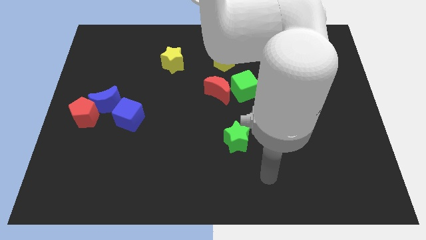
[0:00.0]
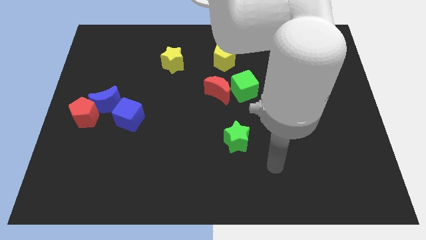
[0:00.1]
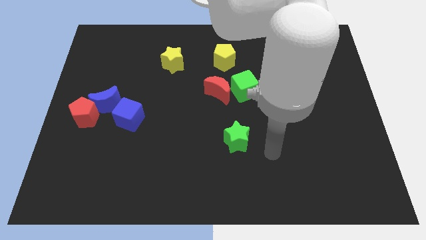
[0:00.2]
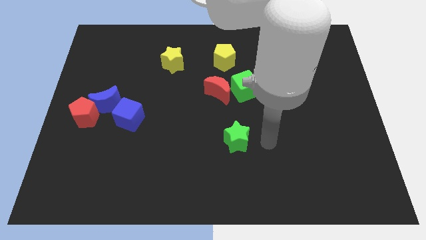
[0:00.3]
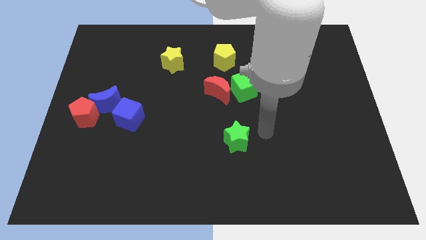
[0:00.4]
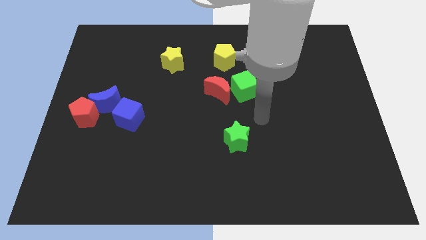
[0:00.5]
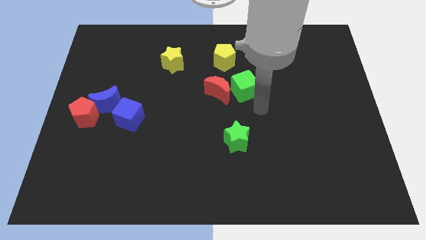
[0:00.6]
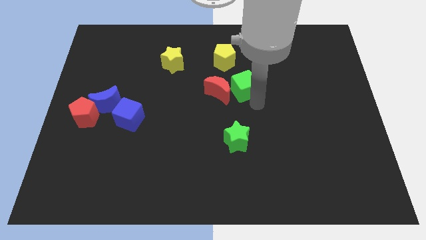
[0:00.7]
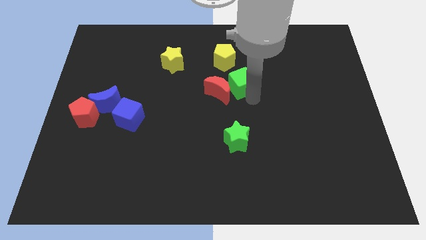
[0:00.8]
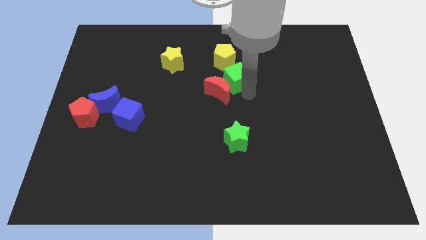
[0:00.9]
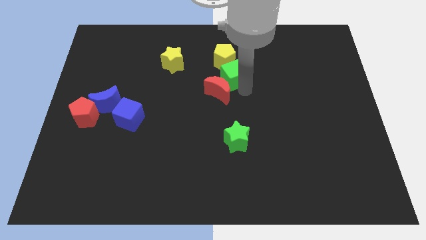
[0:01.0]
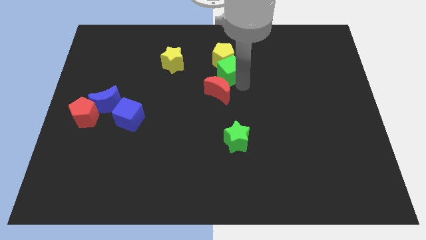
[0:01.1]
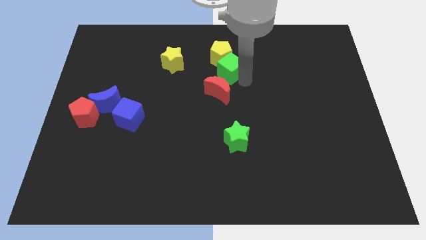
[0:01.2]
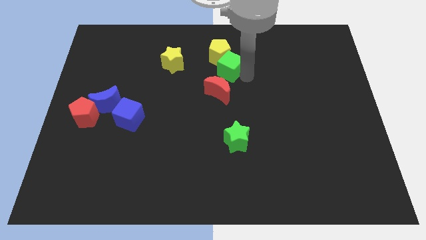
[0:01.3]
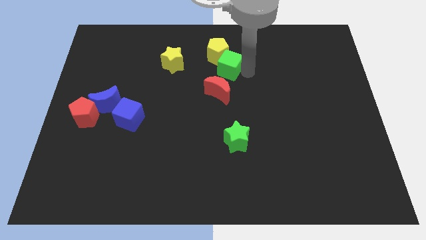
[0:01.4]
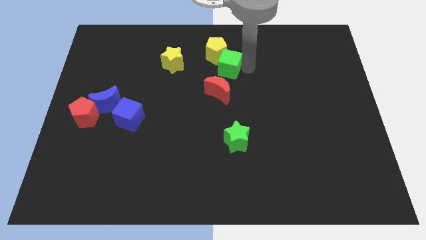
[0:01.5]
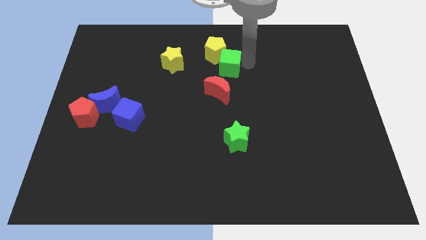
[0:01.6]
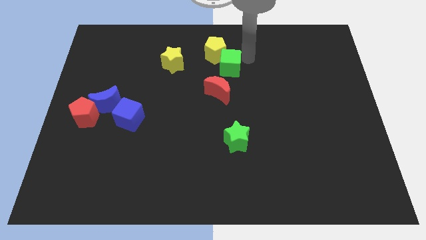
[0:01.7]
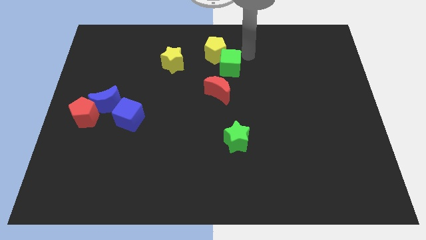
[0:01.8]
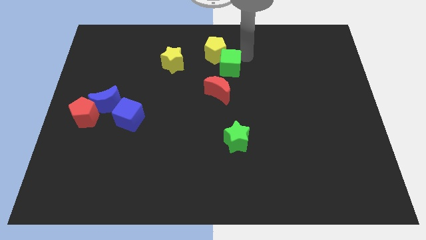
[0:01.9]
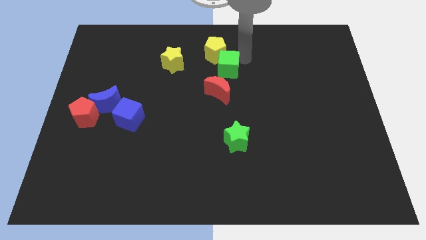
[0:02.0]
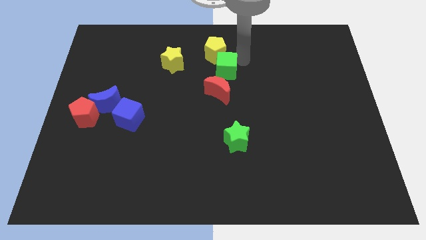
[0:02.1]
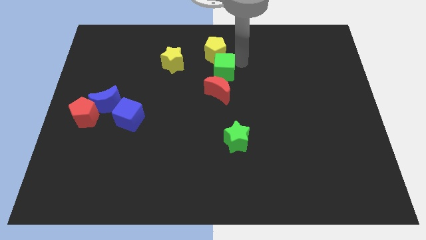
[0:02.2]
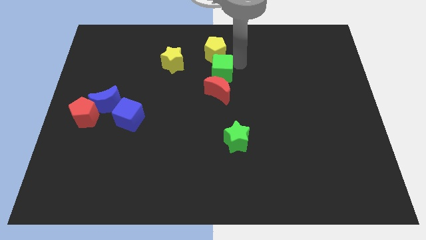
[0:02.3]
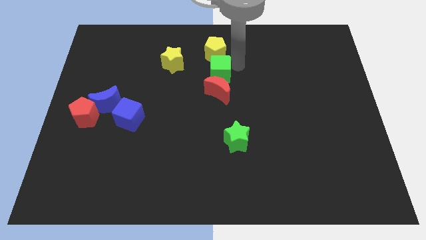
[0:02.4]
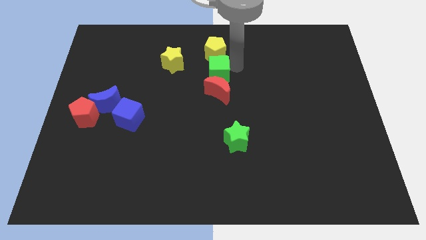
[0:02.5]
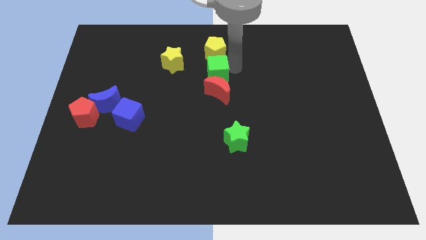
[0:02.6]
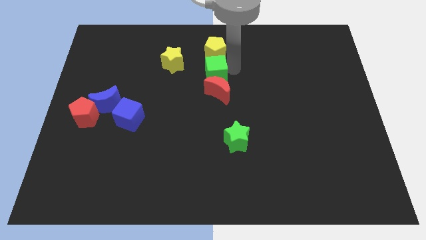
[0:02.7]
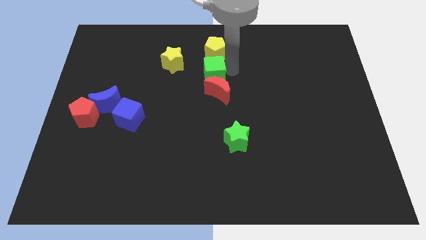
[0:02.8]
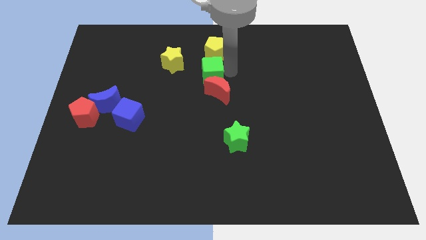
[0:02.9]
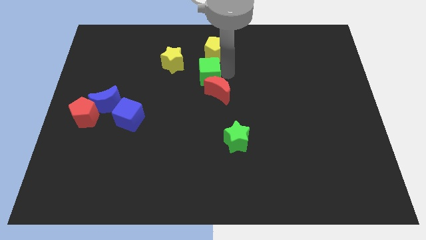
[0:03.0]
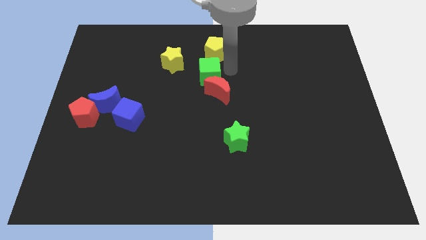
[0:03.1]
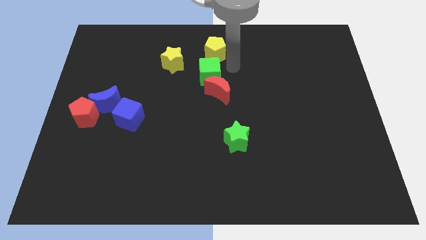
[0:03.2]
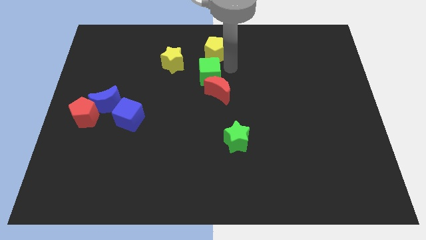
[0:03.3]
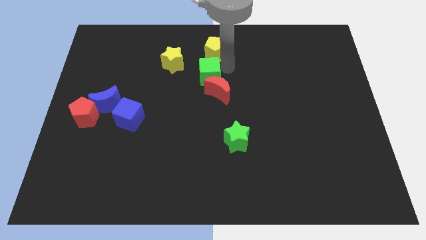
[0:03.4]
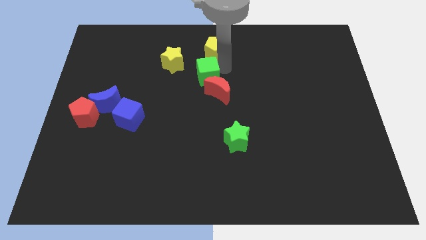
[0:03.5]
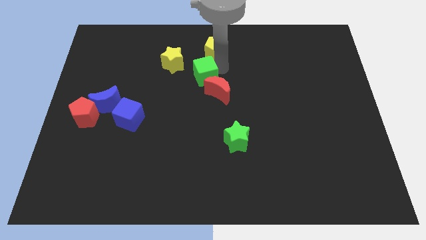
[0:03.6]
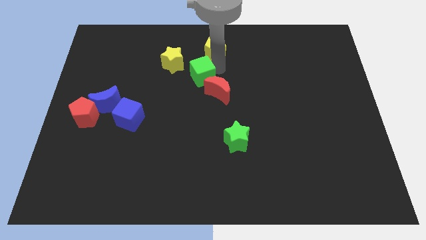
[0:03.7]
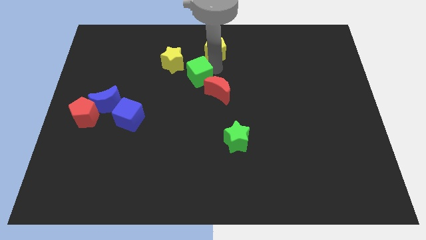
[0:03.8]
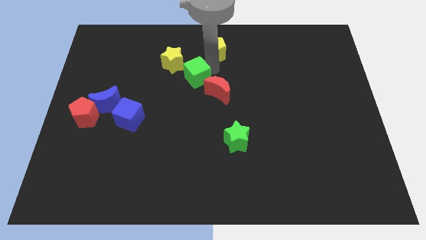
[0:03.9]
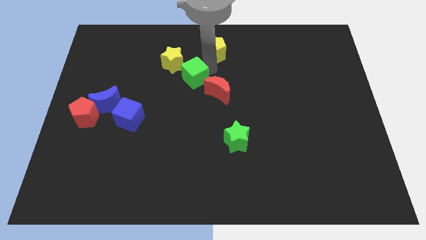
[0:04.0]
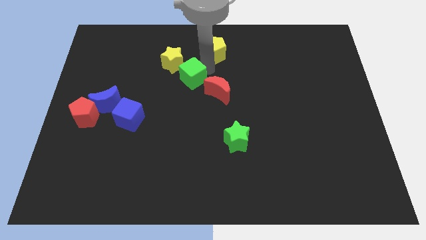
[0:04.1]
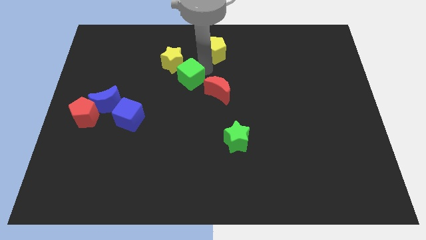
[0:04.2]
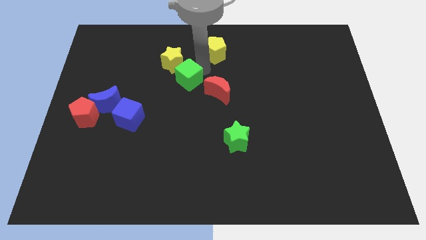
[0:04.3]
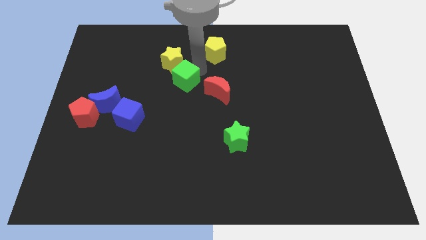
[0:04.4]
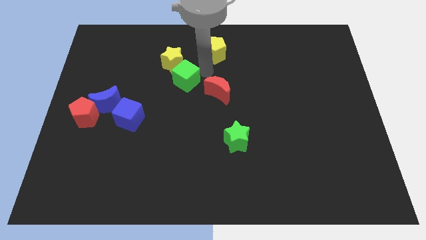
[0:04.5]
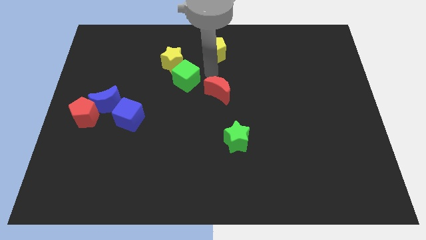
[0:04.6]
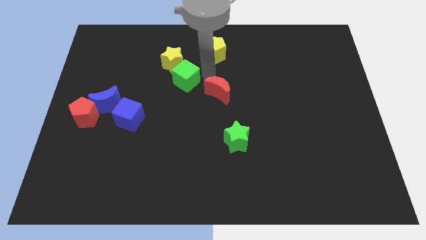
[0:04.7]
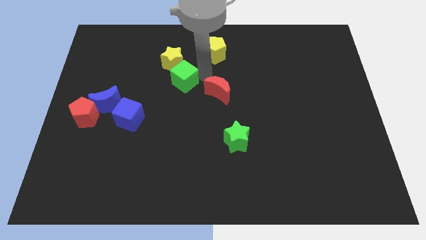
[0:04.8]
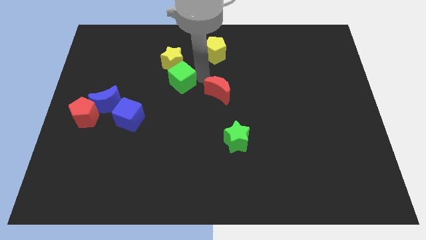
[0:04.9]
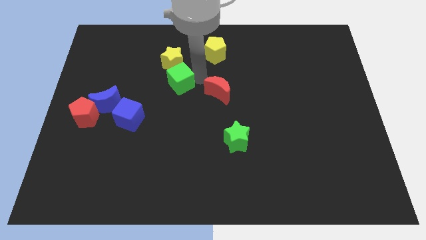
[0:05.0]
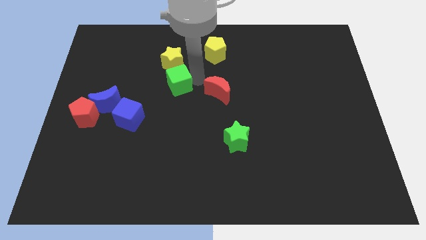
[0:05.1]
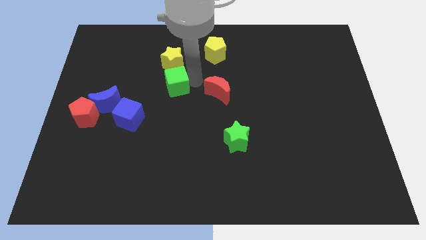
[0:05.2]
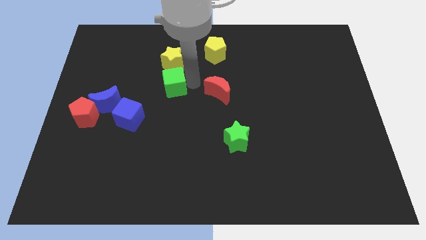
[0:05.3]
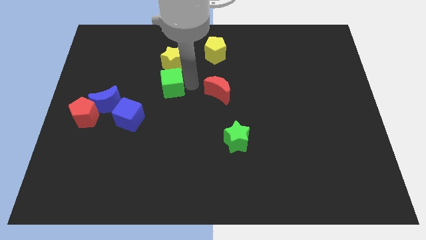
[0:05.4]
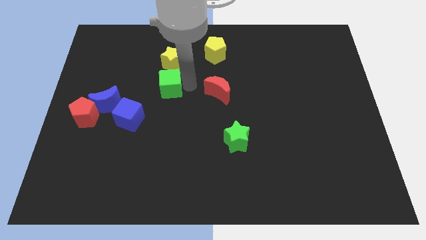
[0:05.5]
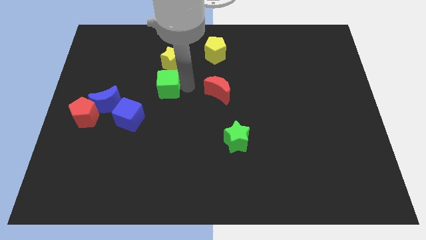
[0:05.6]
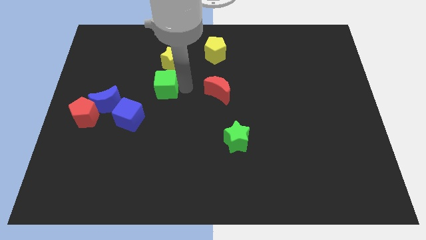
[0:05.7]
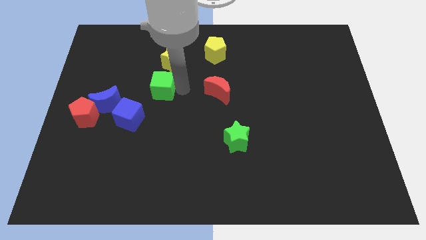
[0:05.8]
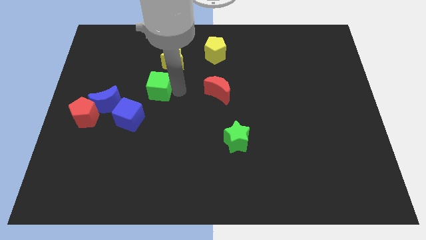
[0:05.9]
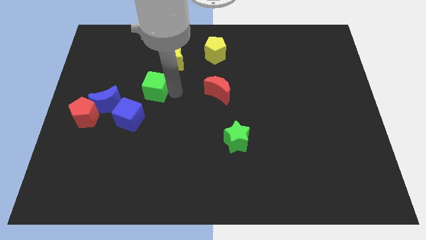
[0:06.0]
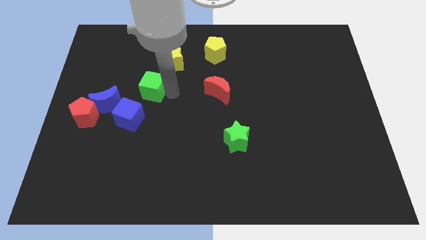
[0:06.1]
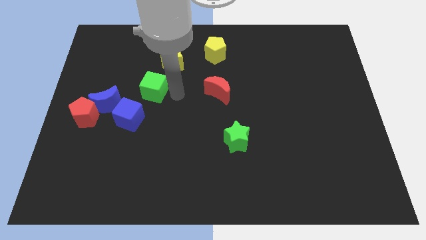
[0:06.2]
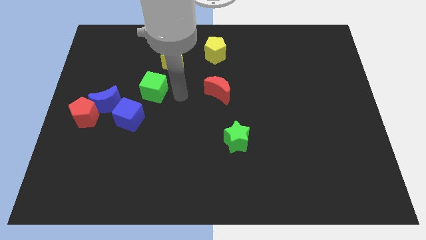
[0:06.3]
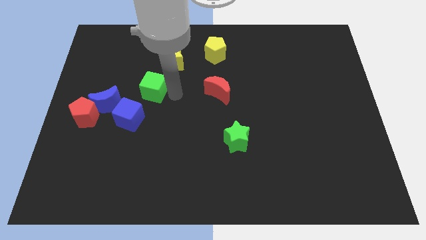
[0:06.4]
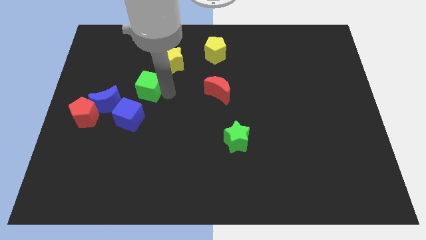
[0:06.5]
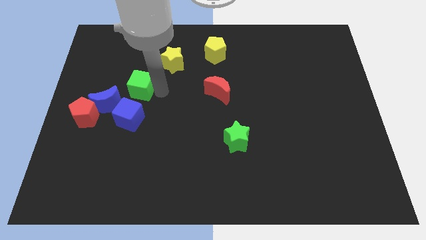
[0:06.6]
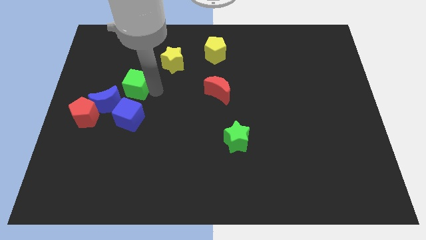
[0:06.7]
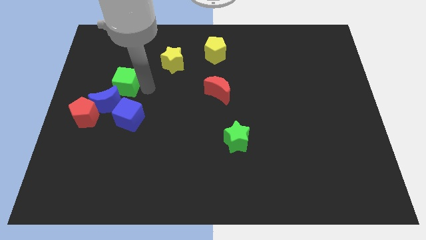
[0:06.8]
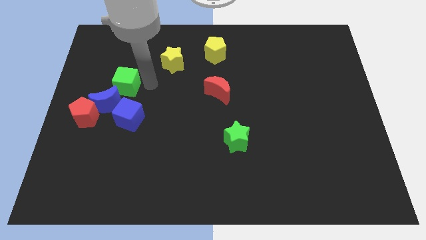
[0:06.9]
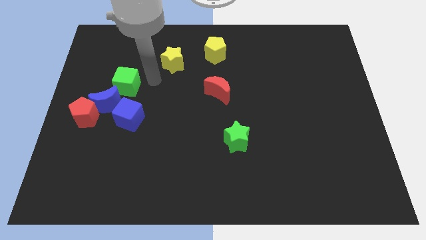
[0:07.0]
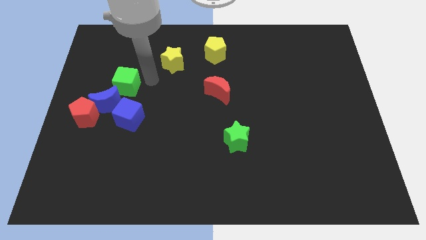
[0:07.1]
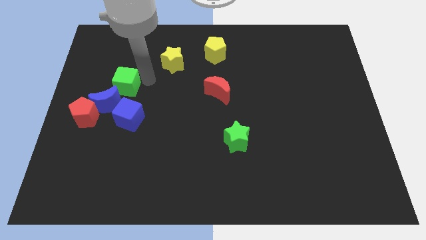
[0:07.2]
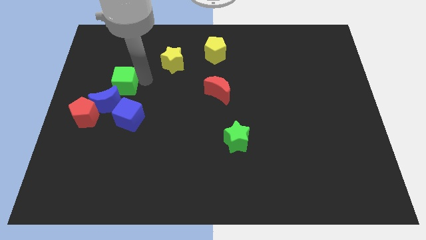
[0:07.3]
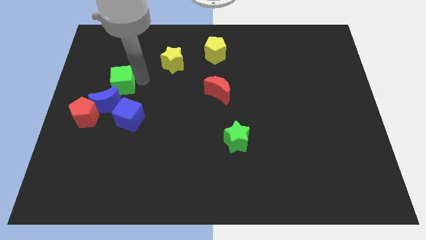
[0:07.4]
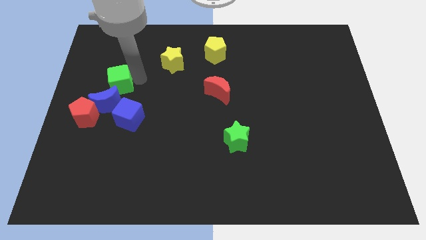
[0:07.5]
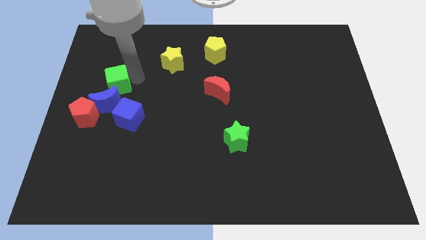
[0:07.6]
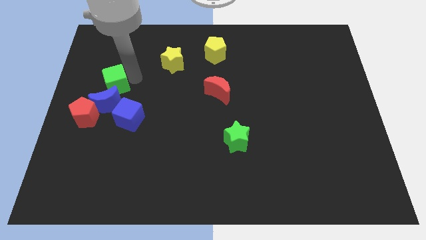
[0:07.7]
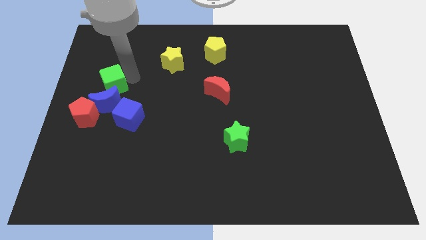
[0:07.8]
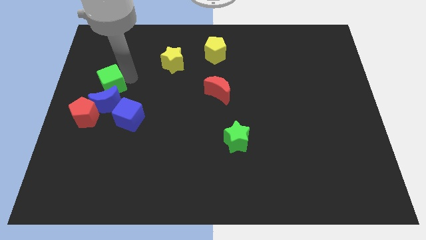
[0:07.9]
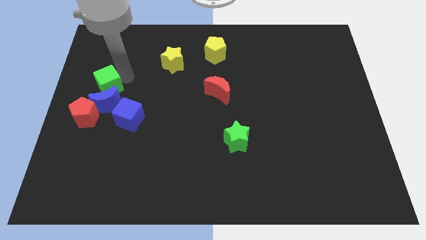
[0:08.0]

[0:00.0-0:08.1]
move the green cube to the left side of the board
